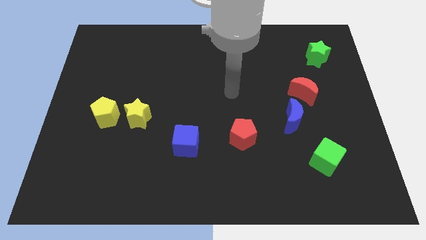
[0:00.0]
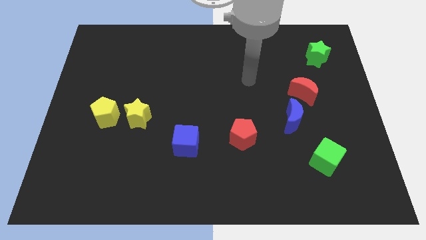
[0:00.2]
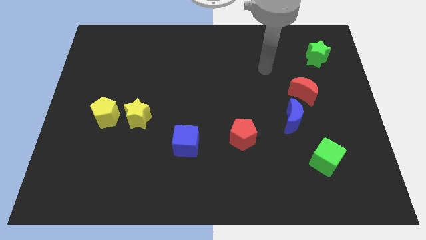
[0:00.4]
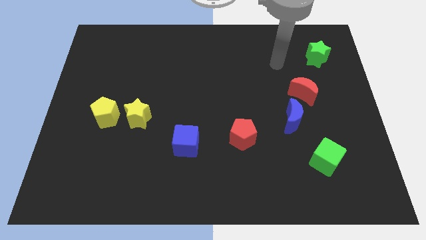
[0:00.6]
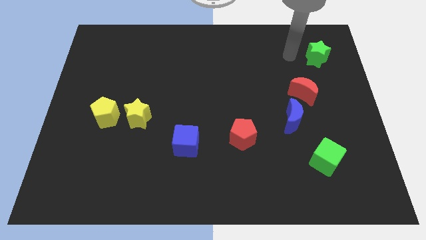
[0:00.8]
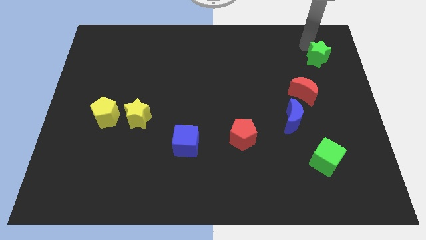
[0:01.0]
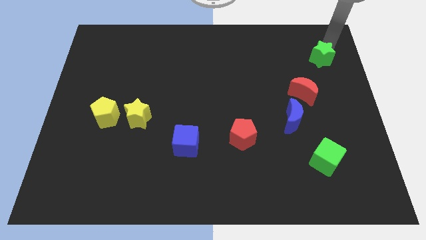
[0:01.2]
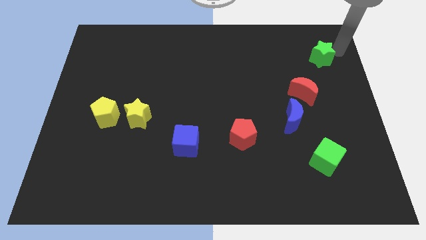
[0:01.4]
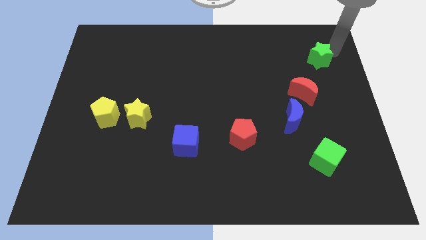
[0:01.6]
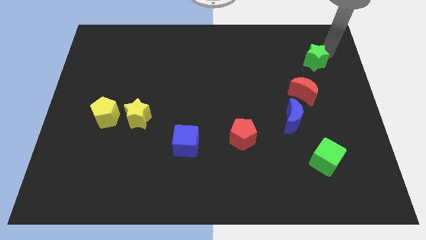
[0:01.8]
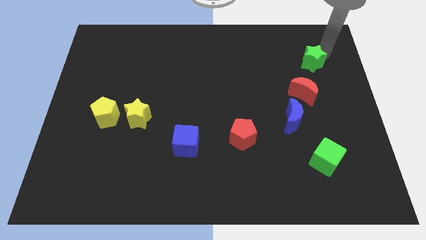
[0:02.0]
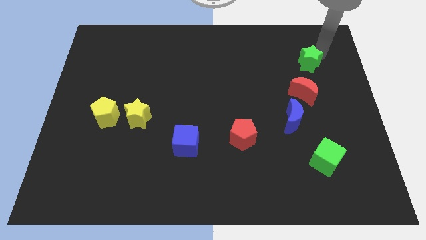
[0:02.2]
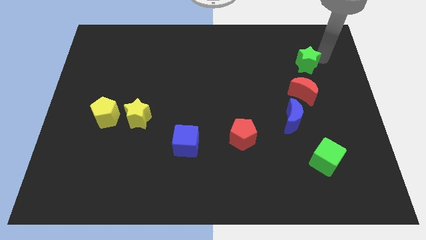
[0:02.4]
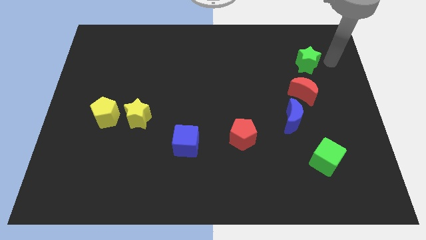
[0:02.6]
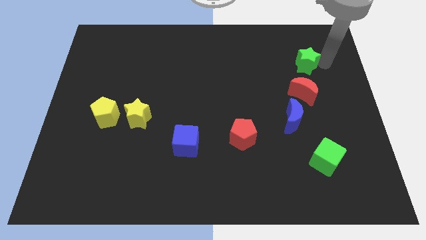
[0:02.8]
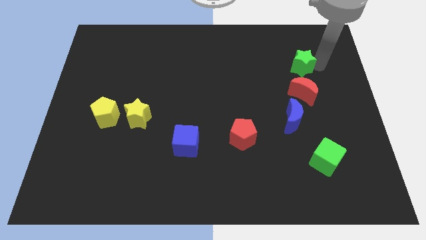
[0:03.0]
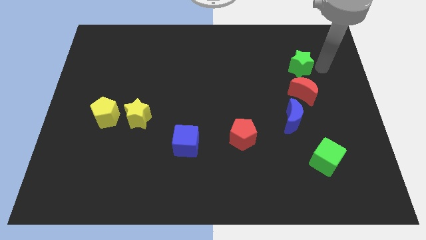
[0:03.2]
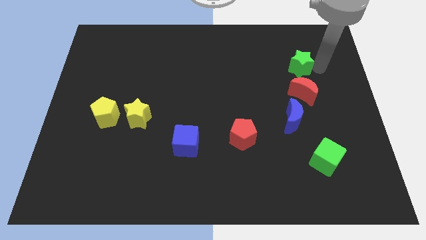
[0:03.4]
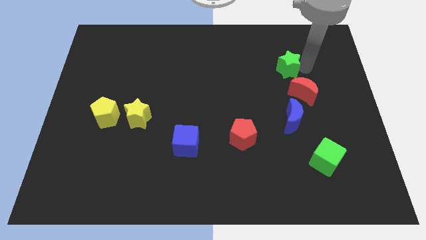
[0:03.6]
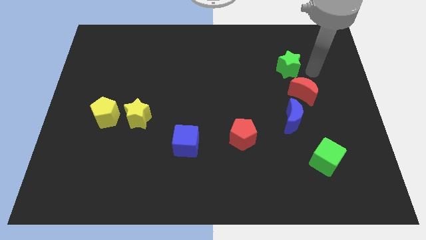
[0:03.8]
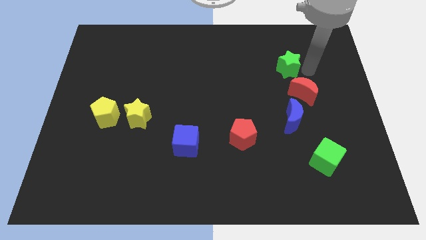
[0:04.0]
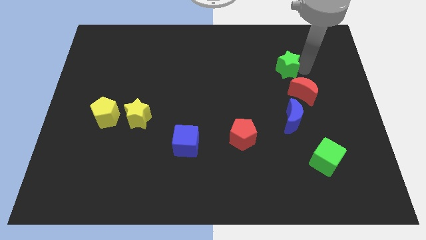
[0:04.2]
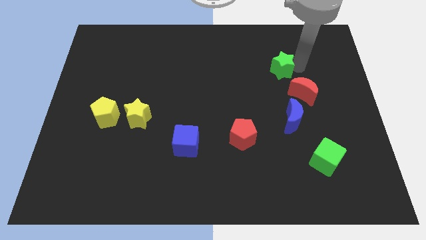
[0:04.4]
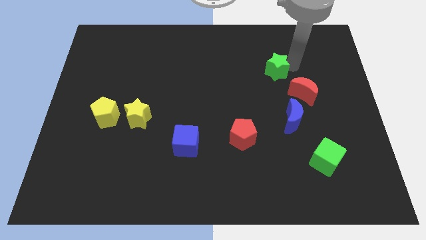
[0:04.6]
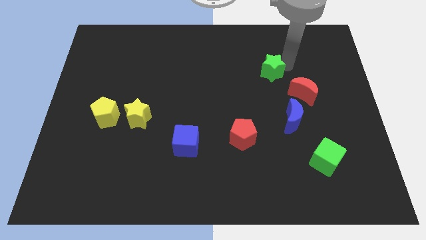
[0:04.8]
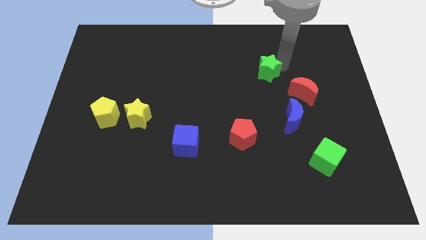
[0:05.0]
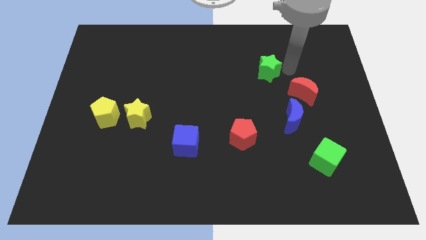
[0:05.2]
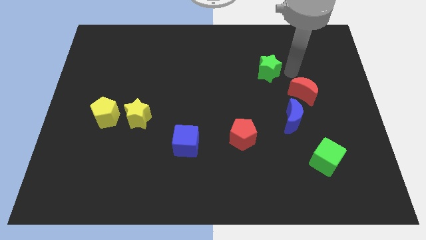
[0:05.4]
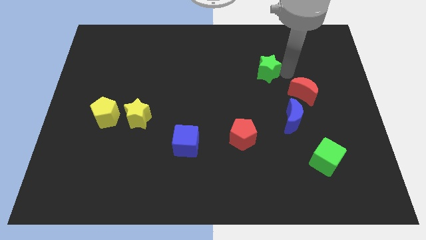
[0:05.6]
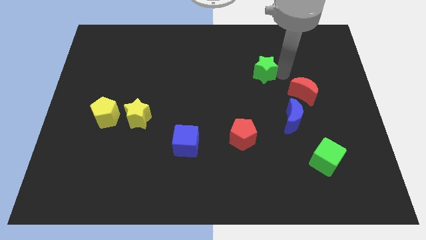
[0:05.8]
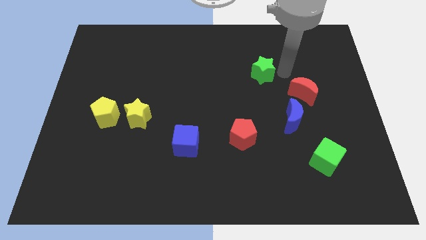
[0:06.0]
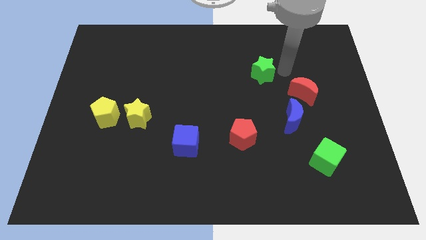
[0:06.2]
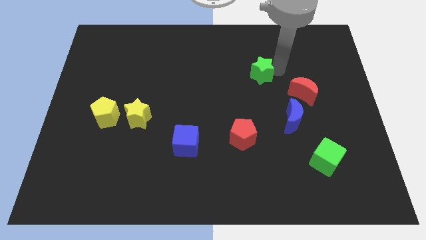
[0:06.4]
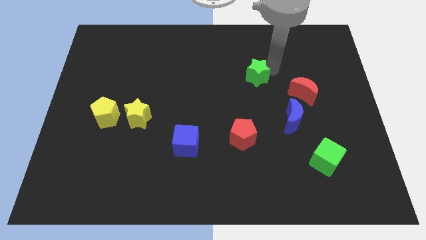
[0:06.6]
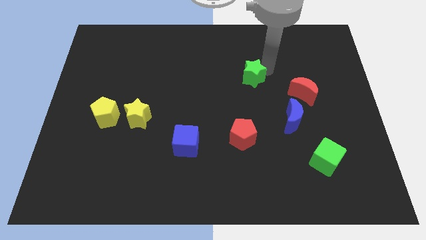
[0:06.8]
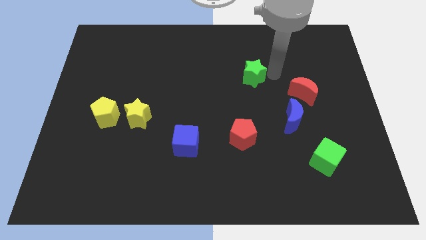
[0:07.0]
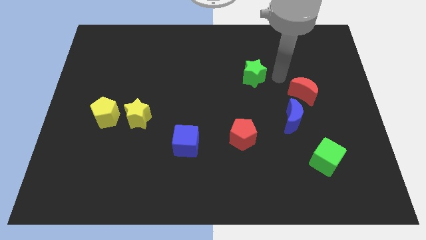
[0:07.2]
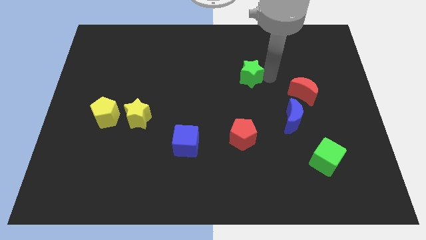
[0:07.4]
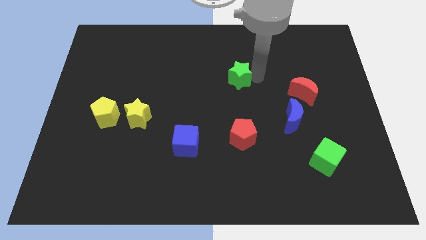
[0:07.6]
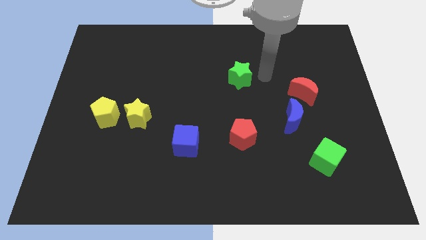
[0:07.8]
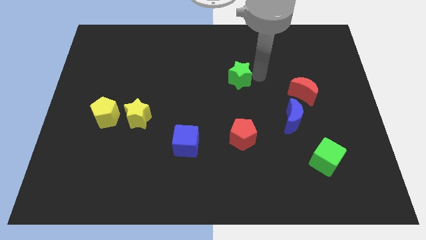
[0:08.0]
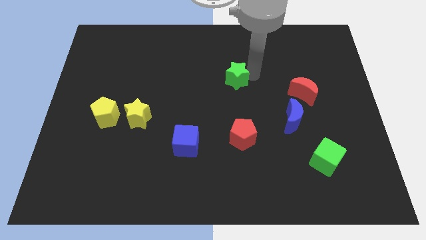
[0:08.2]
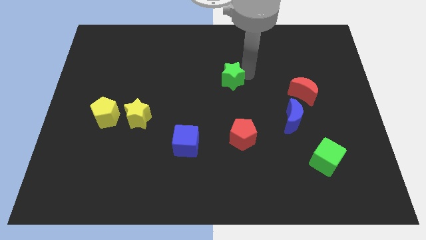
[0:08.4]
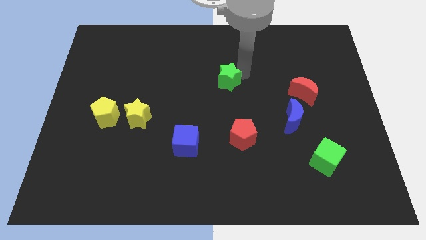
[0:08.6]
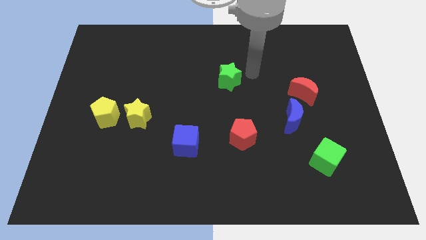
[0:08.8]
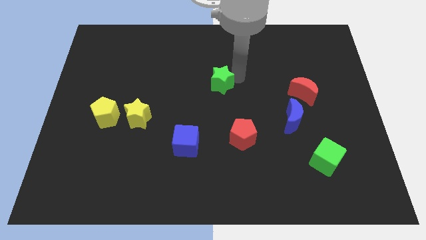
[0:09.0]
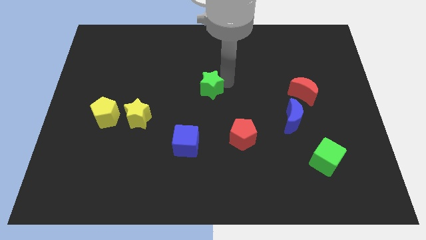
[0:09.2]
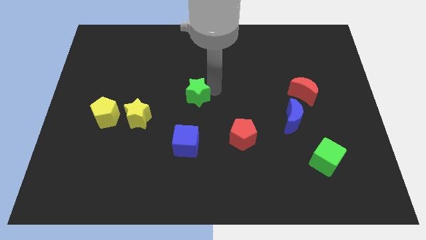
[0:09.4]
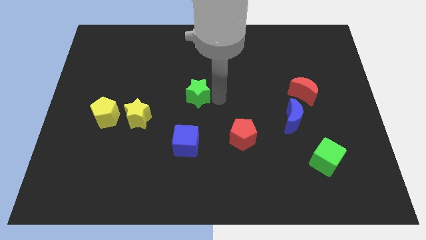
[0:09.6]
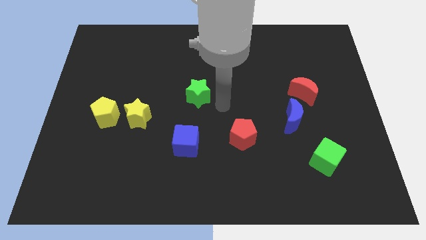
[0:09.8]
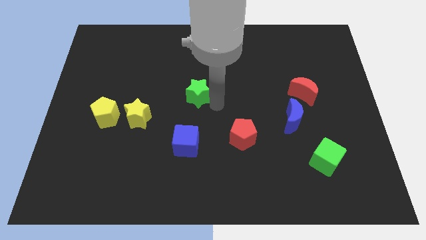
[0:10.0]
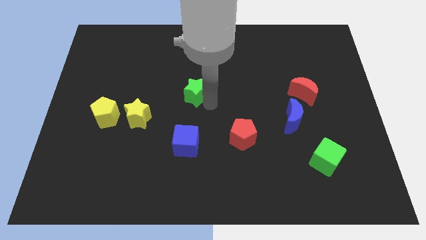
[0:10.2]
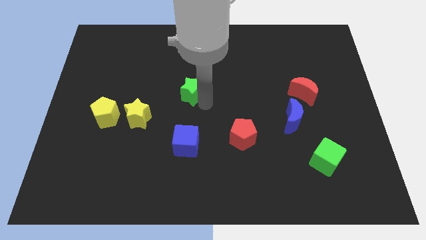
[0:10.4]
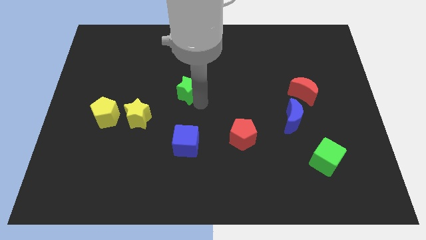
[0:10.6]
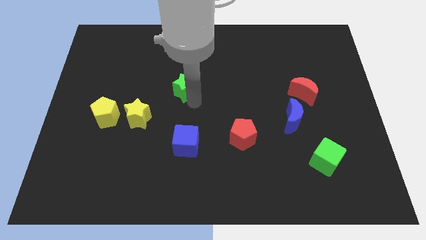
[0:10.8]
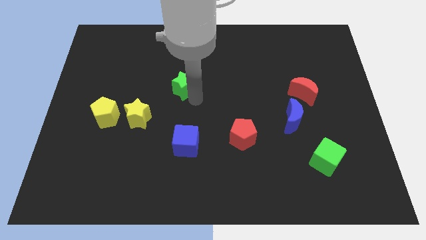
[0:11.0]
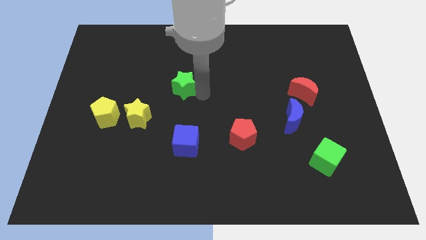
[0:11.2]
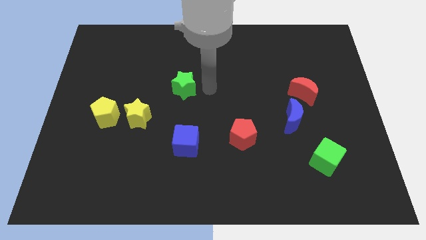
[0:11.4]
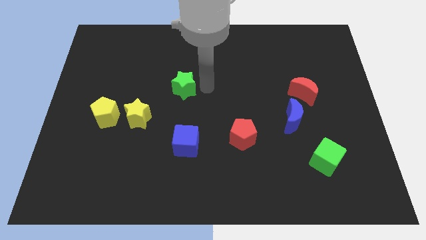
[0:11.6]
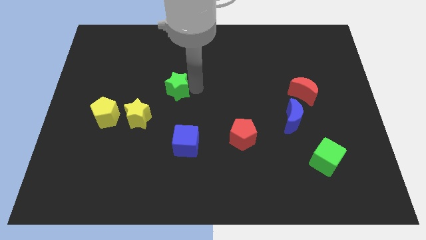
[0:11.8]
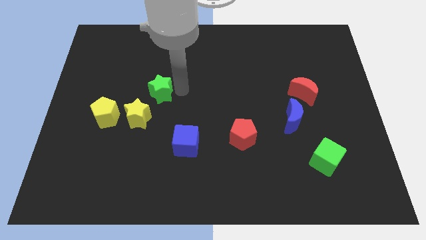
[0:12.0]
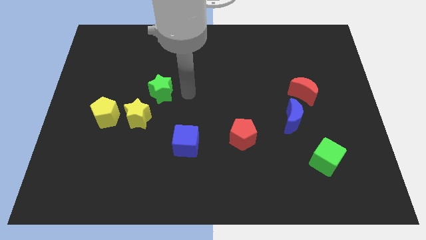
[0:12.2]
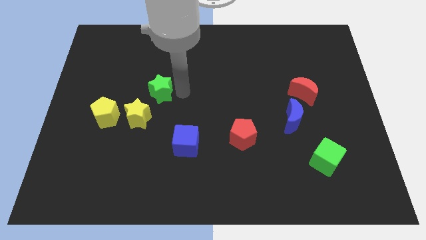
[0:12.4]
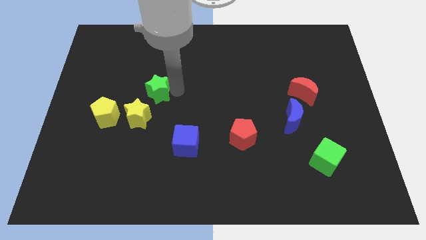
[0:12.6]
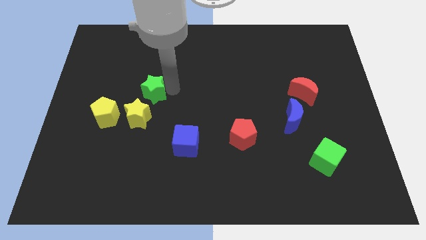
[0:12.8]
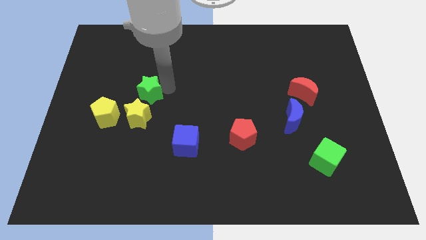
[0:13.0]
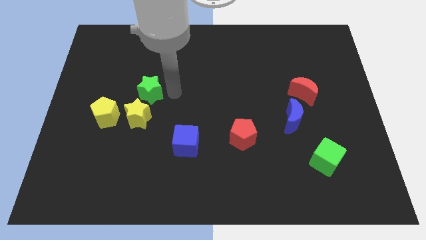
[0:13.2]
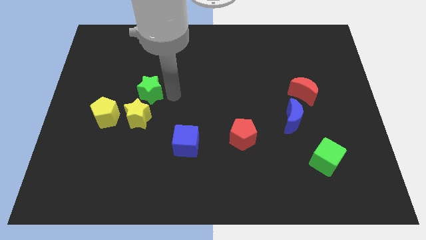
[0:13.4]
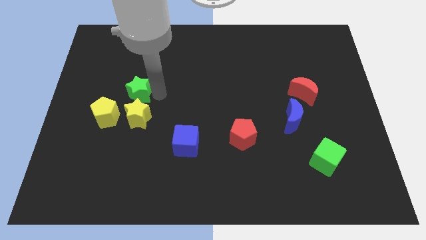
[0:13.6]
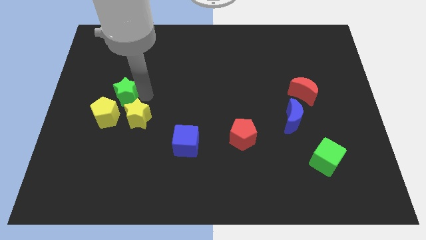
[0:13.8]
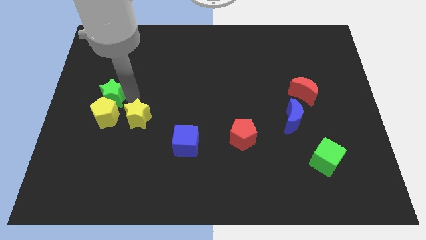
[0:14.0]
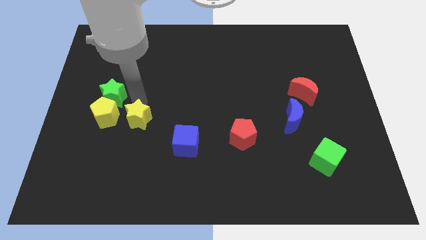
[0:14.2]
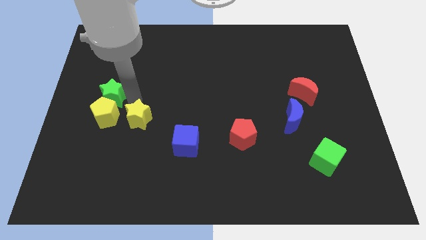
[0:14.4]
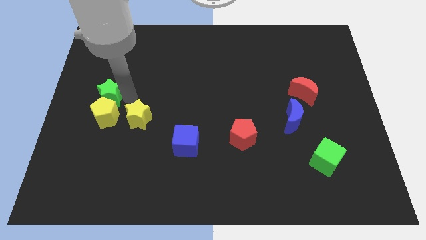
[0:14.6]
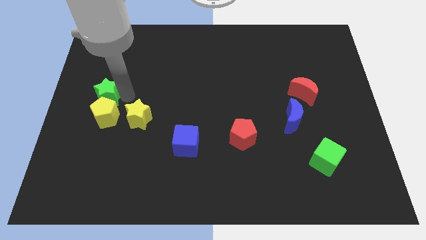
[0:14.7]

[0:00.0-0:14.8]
move the green star to the left side of the board
